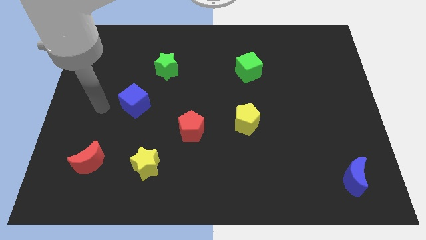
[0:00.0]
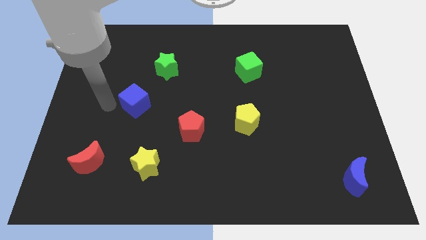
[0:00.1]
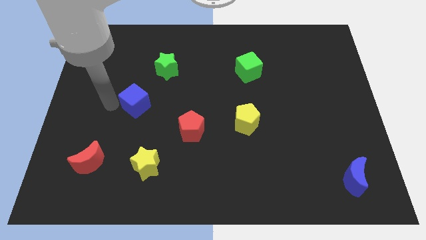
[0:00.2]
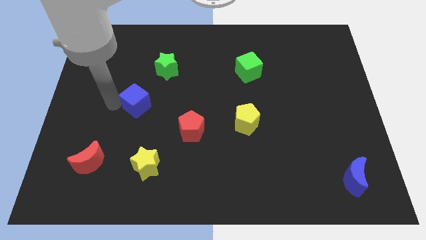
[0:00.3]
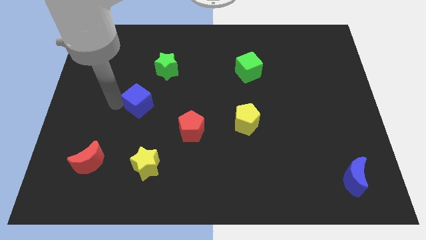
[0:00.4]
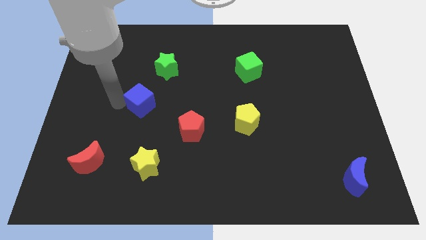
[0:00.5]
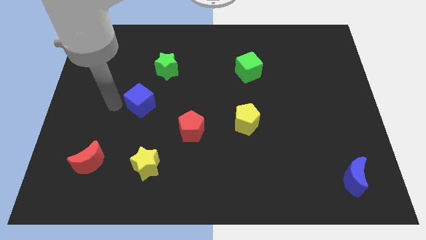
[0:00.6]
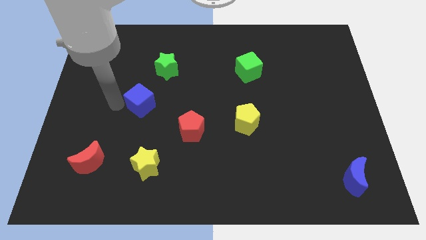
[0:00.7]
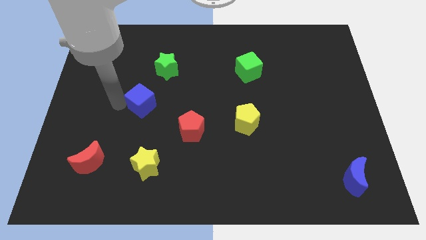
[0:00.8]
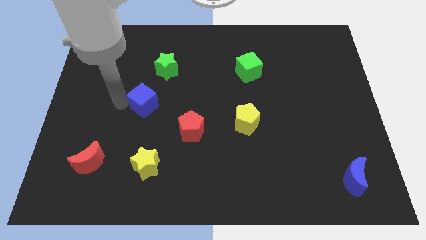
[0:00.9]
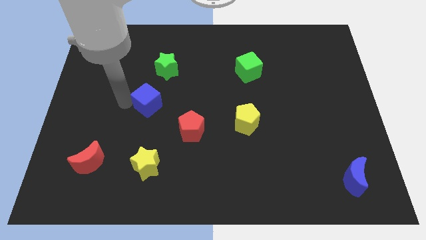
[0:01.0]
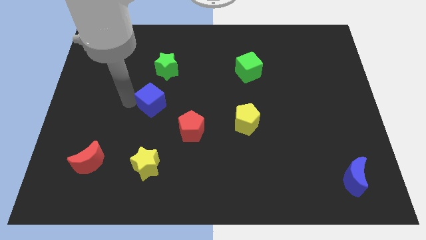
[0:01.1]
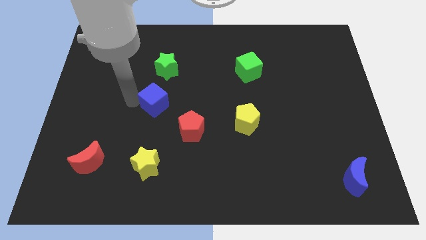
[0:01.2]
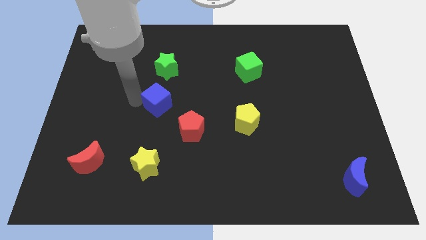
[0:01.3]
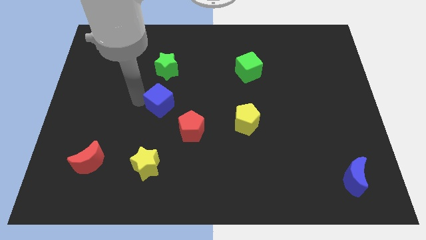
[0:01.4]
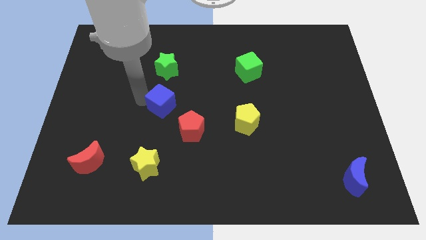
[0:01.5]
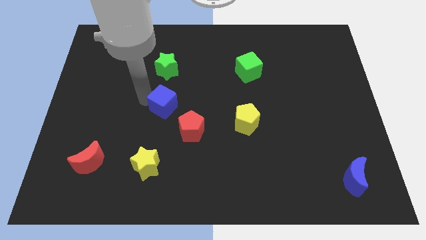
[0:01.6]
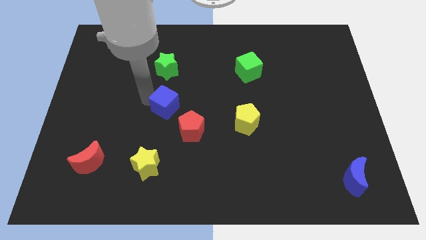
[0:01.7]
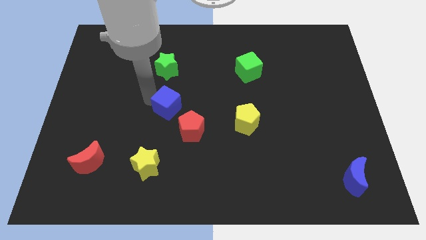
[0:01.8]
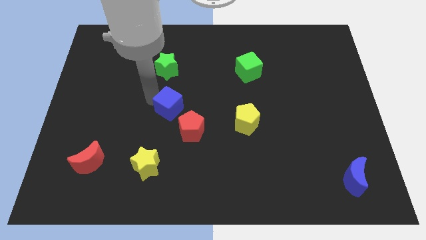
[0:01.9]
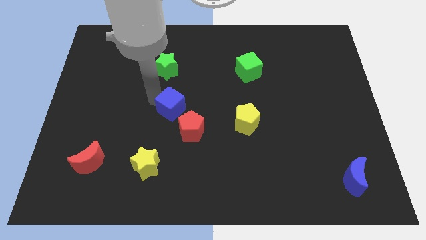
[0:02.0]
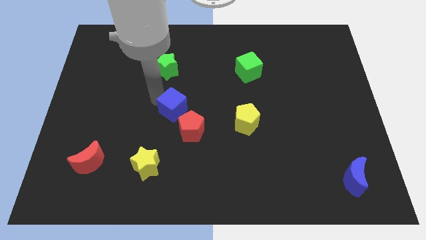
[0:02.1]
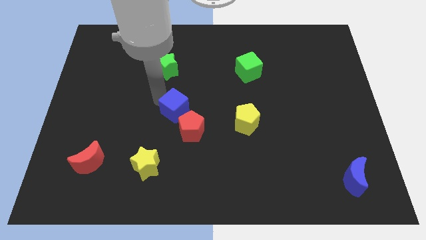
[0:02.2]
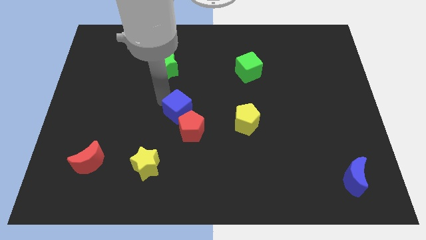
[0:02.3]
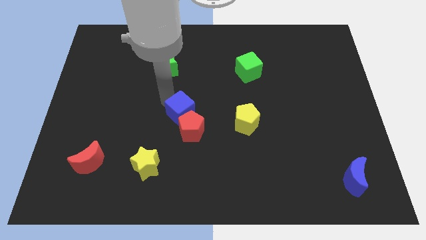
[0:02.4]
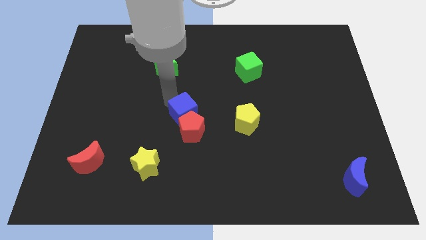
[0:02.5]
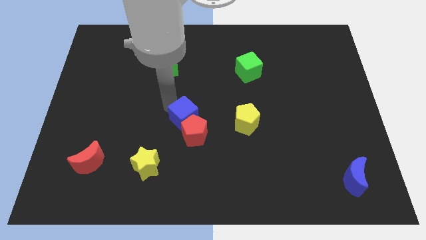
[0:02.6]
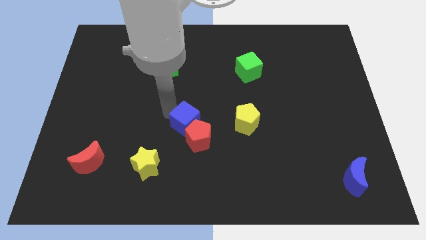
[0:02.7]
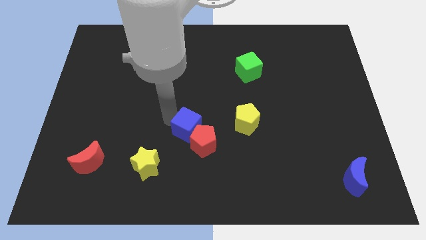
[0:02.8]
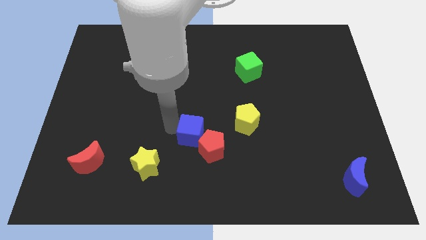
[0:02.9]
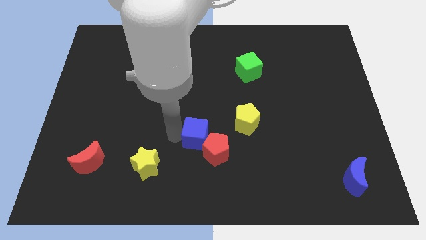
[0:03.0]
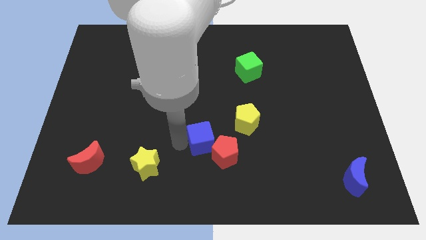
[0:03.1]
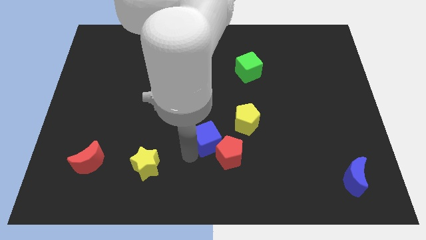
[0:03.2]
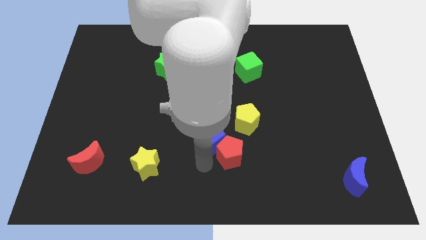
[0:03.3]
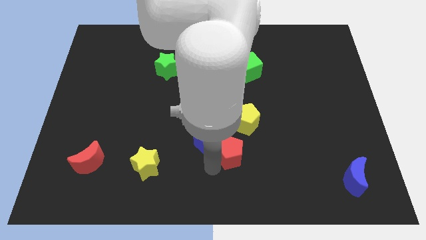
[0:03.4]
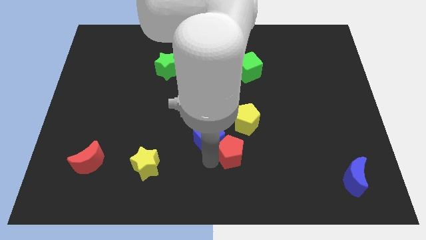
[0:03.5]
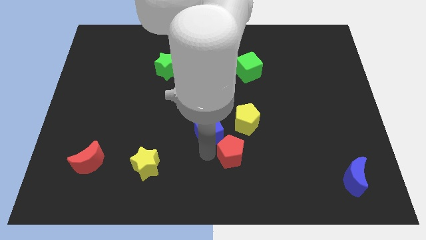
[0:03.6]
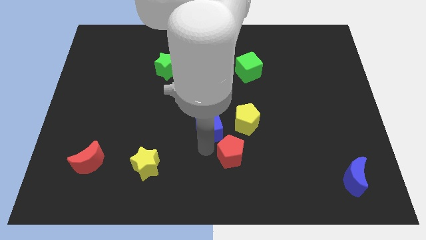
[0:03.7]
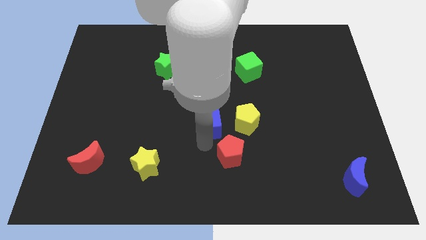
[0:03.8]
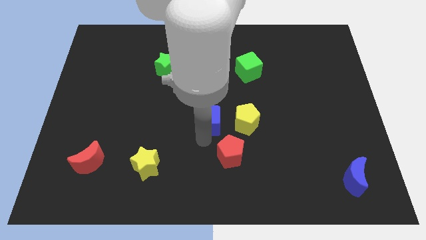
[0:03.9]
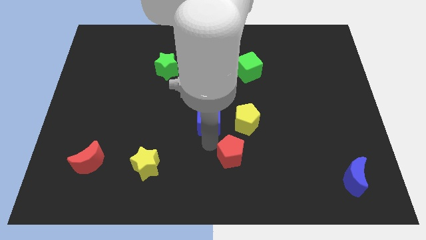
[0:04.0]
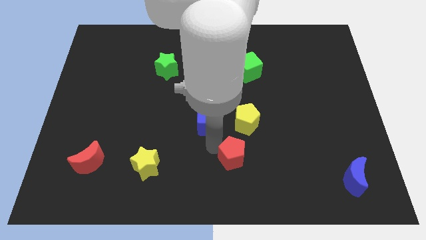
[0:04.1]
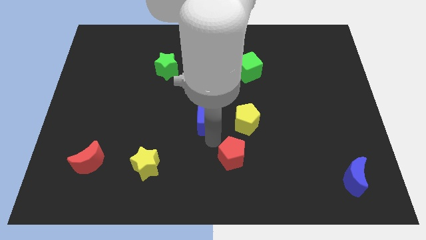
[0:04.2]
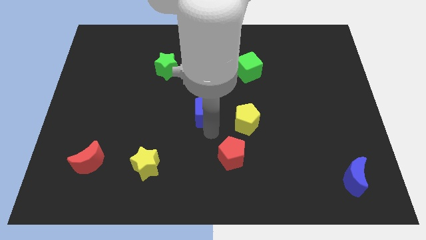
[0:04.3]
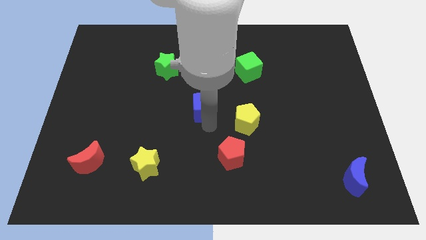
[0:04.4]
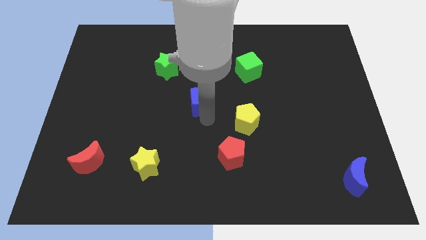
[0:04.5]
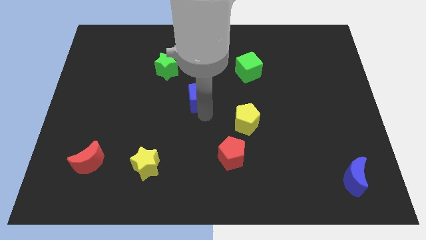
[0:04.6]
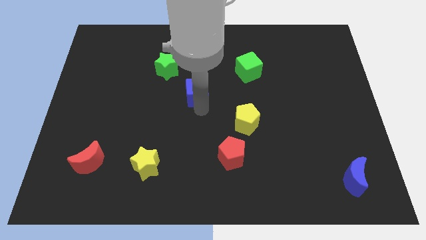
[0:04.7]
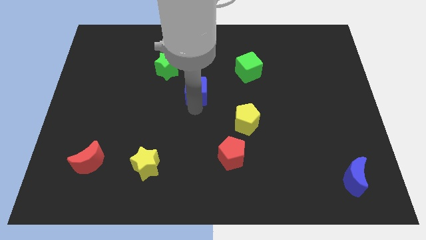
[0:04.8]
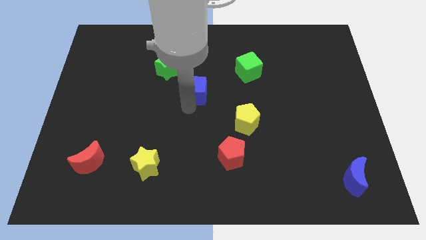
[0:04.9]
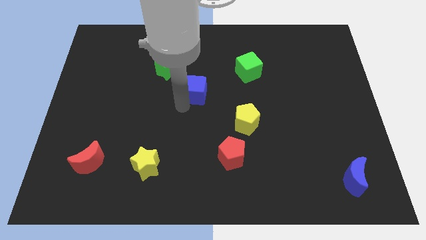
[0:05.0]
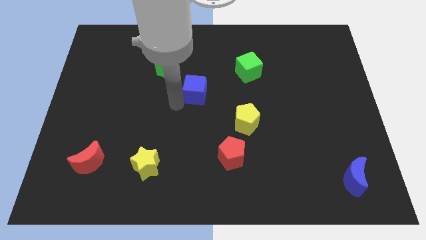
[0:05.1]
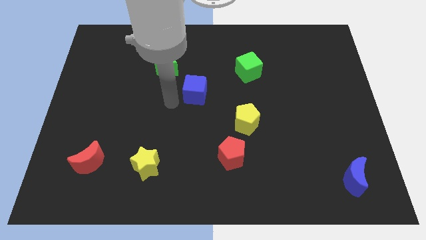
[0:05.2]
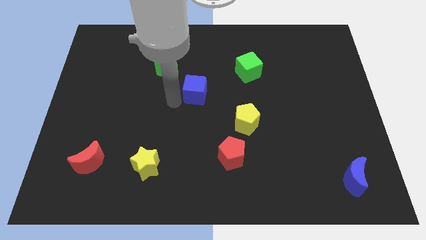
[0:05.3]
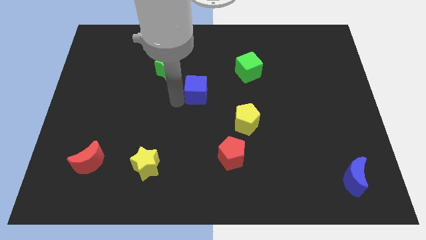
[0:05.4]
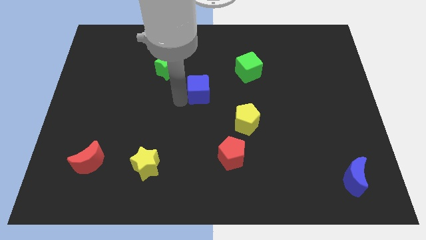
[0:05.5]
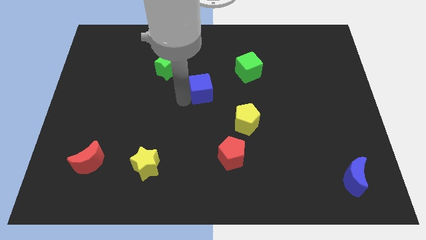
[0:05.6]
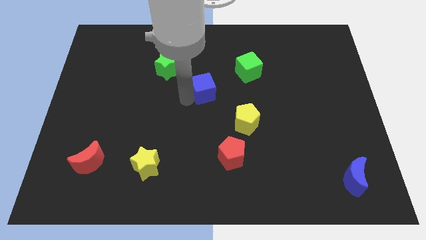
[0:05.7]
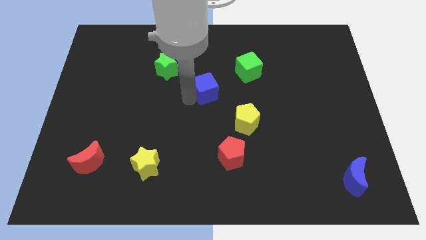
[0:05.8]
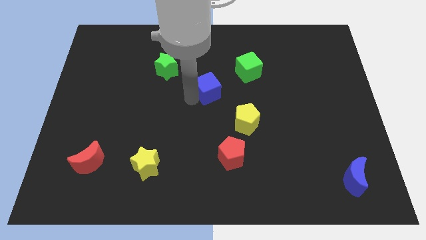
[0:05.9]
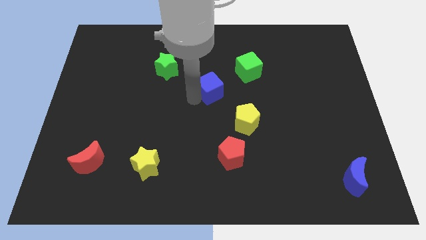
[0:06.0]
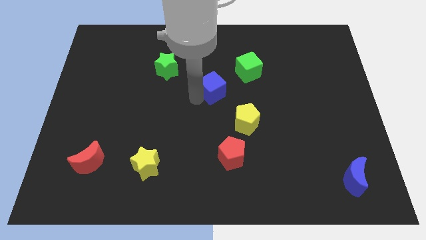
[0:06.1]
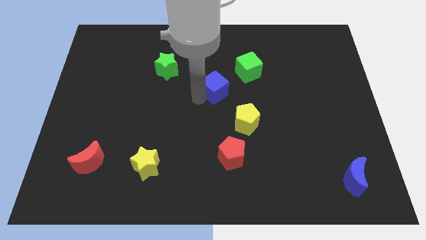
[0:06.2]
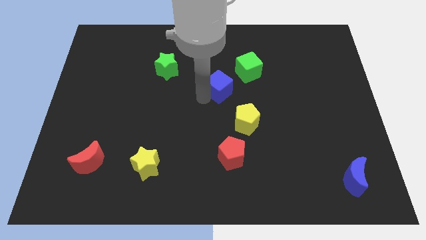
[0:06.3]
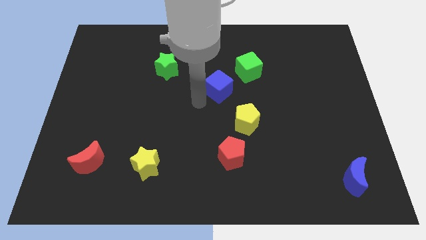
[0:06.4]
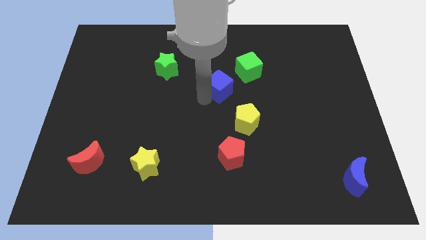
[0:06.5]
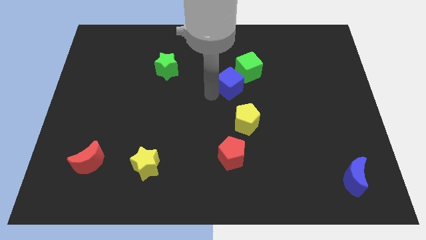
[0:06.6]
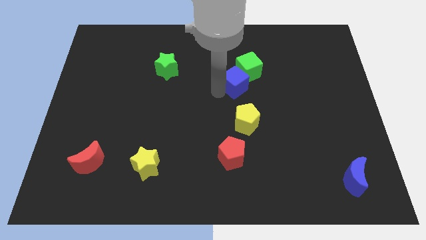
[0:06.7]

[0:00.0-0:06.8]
push the blue cube to the green cube
